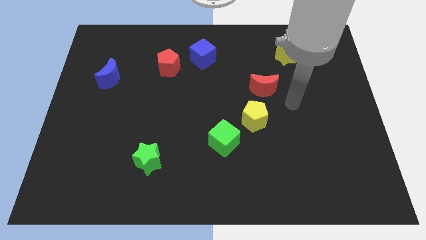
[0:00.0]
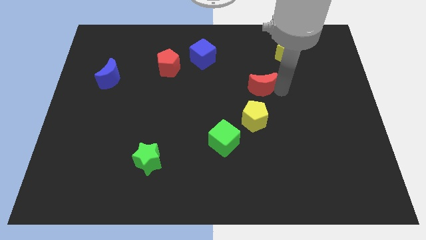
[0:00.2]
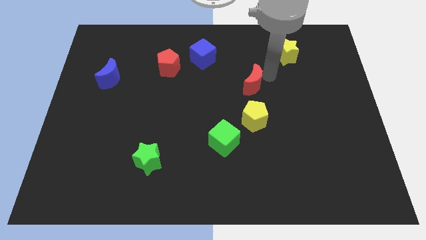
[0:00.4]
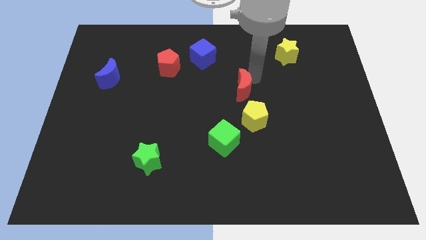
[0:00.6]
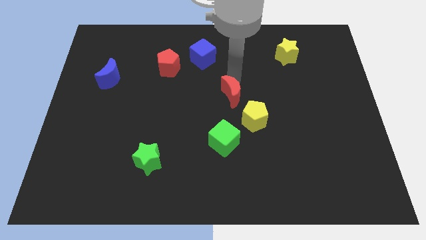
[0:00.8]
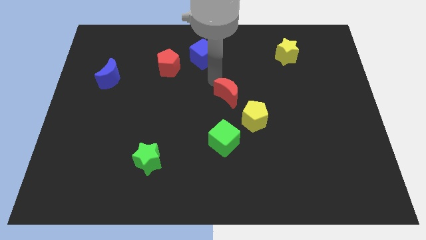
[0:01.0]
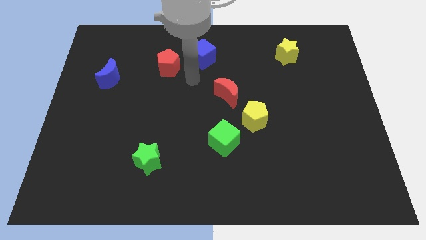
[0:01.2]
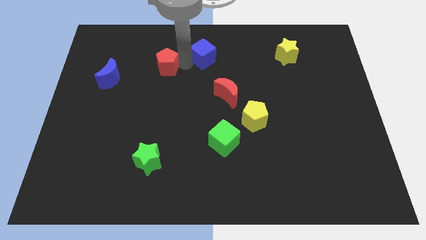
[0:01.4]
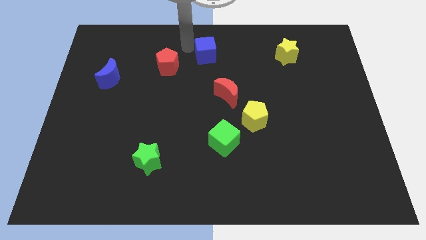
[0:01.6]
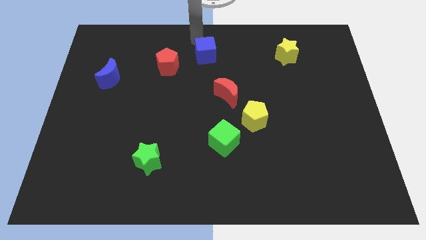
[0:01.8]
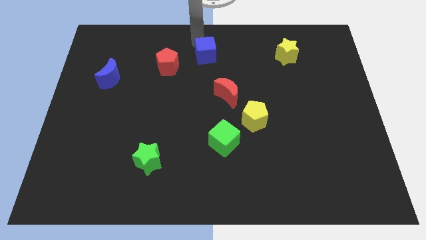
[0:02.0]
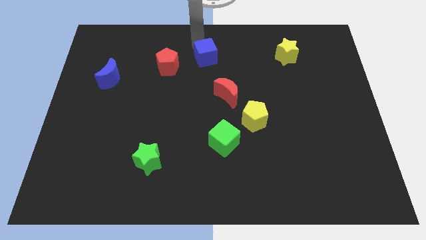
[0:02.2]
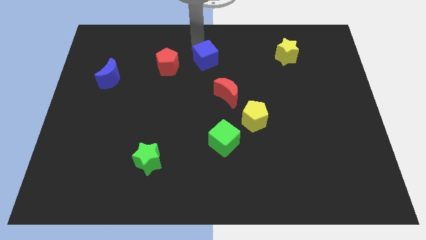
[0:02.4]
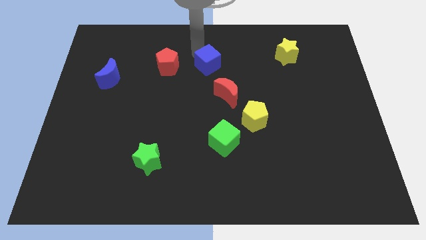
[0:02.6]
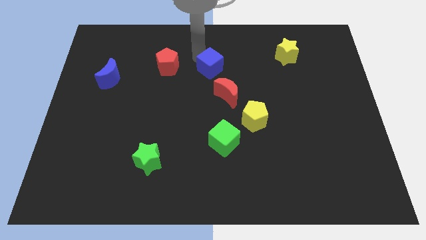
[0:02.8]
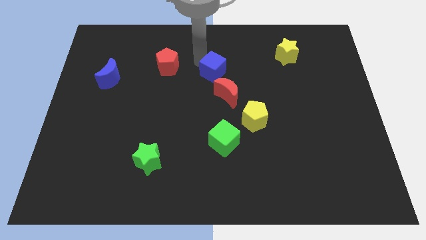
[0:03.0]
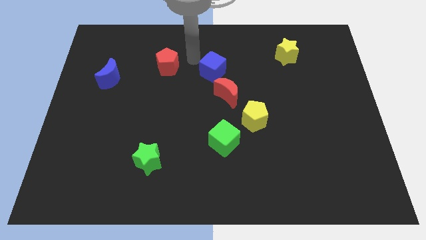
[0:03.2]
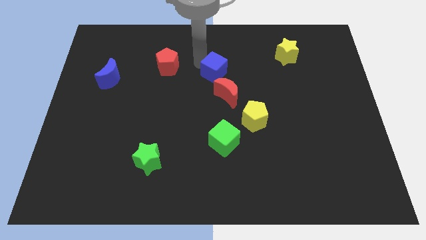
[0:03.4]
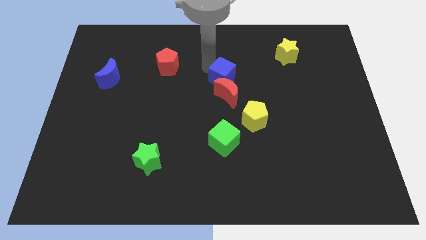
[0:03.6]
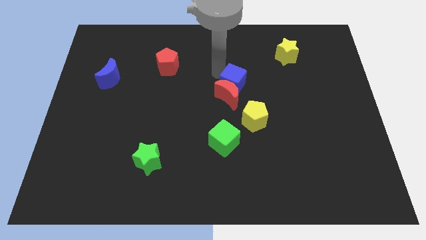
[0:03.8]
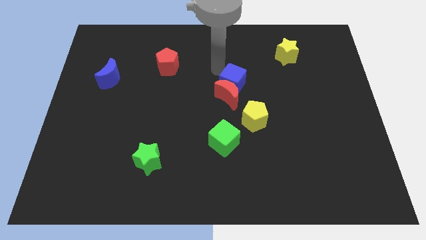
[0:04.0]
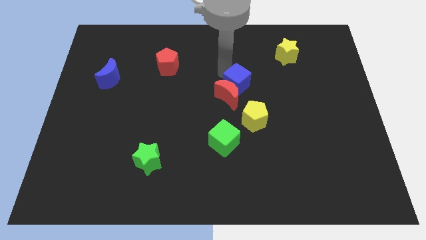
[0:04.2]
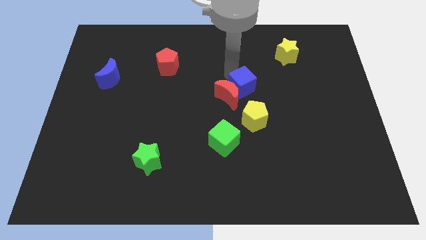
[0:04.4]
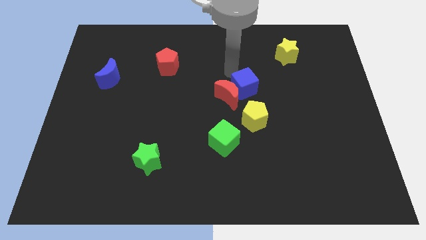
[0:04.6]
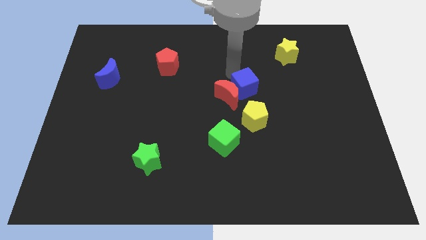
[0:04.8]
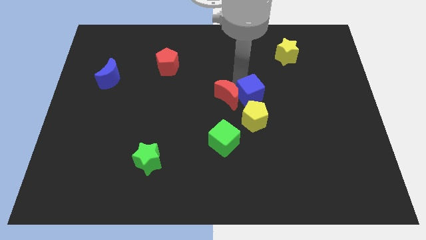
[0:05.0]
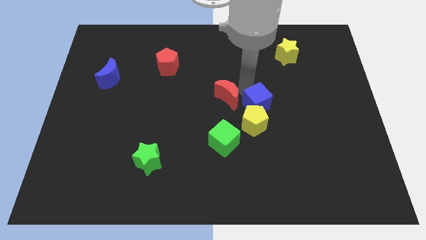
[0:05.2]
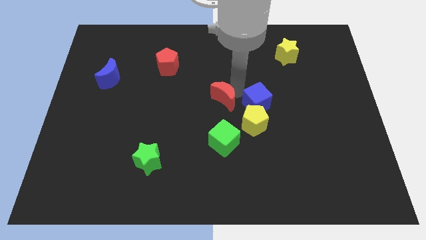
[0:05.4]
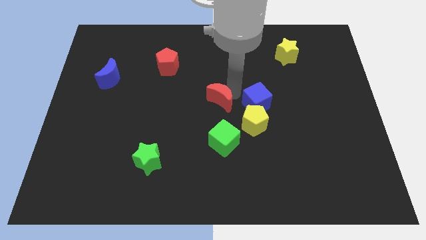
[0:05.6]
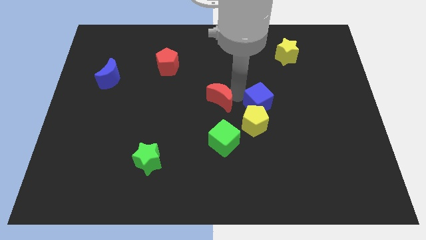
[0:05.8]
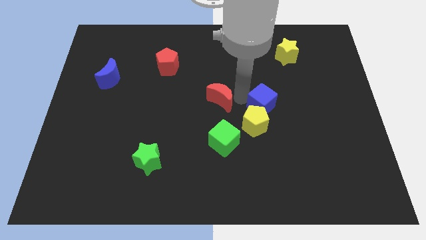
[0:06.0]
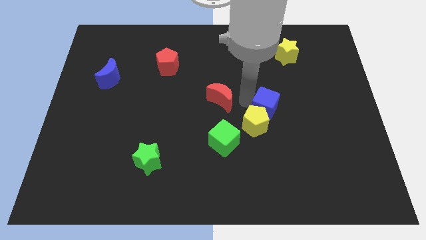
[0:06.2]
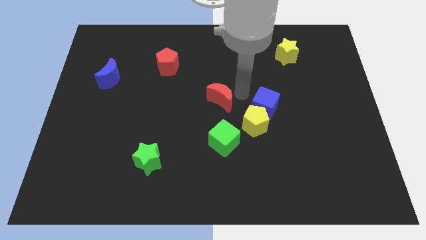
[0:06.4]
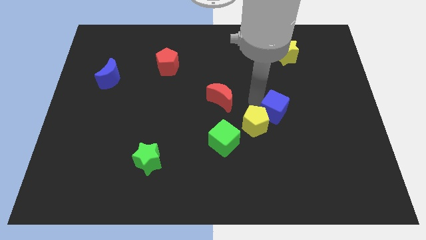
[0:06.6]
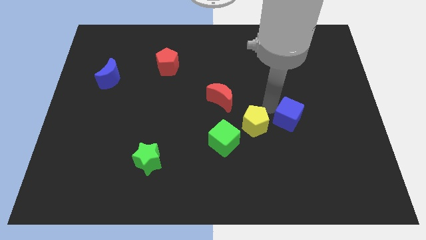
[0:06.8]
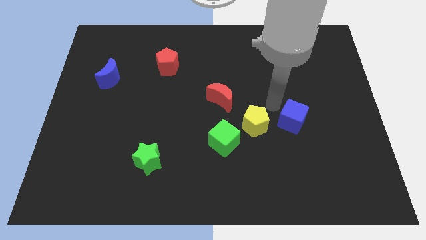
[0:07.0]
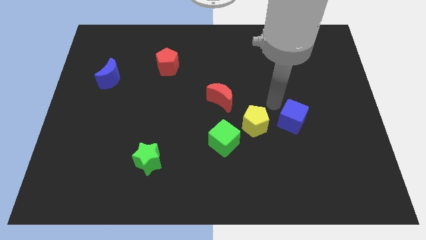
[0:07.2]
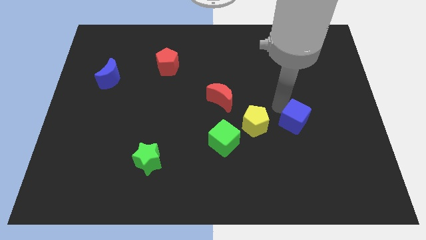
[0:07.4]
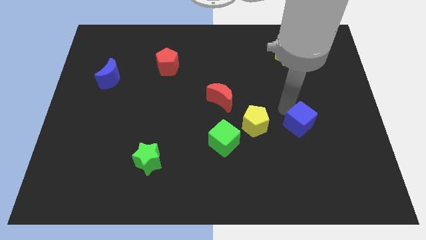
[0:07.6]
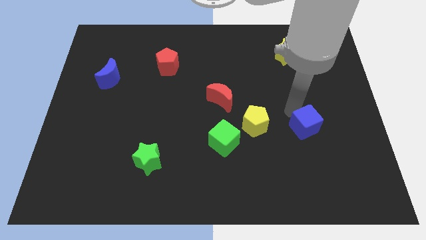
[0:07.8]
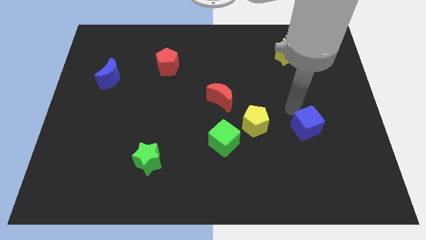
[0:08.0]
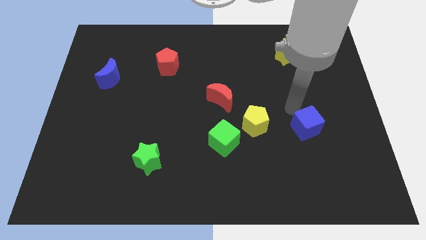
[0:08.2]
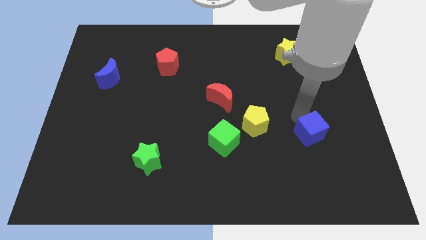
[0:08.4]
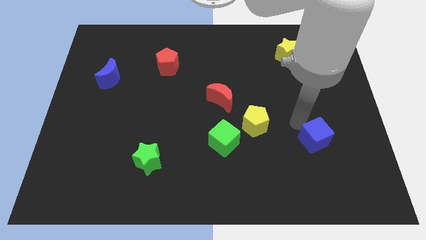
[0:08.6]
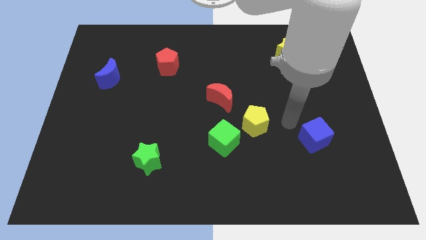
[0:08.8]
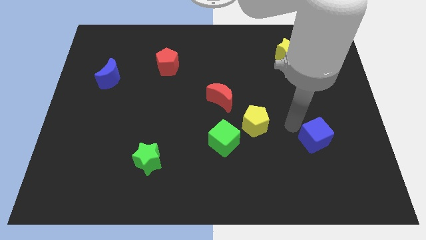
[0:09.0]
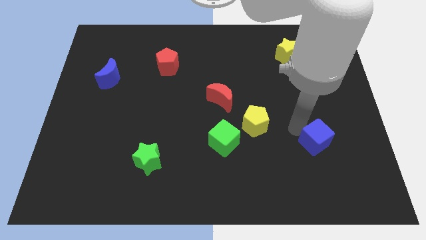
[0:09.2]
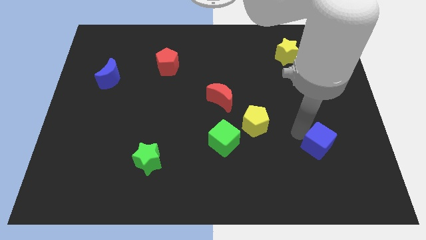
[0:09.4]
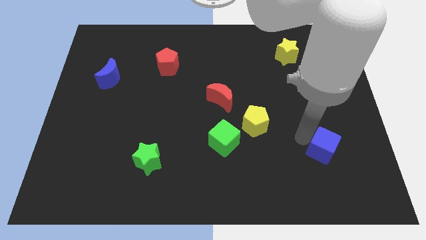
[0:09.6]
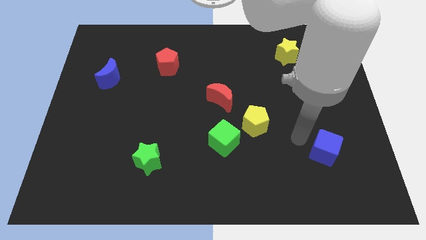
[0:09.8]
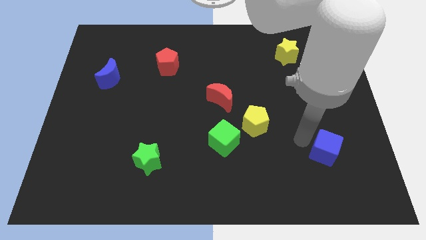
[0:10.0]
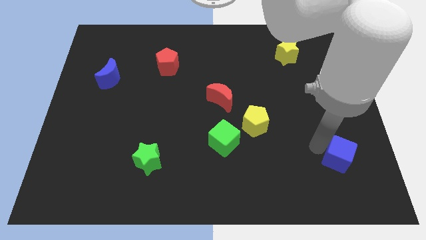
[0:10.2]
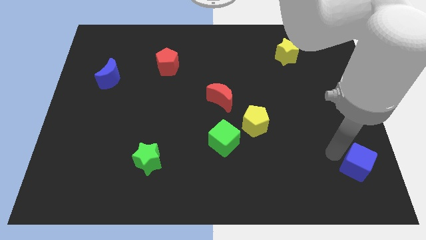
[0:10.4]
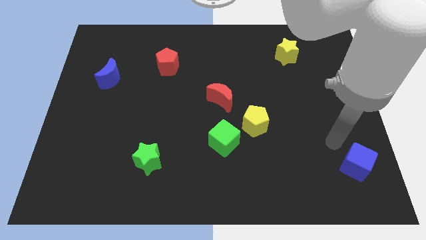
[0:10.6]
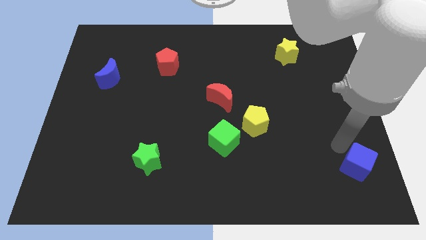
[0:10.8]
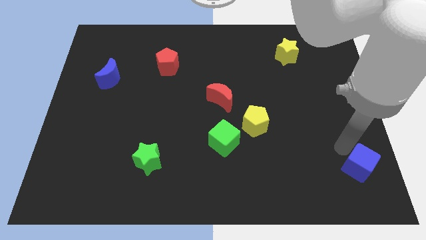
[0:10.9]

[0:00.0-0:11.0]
push the blue cube to the bottom right

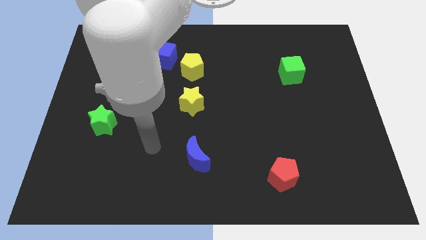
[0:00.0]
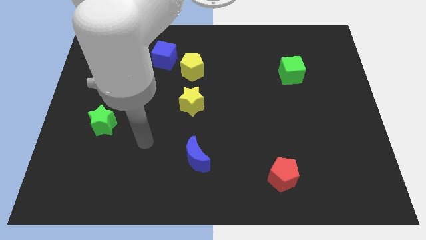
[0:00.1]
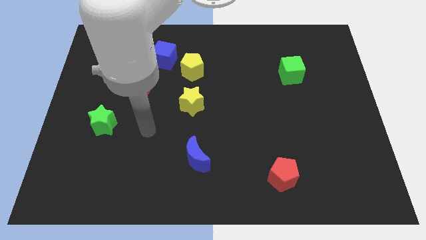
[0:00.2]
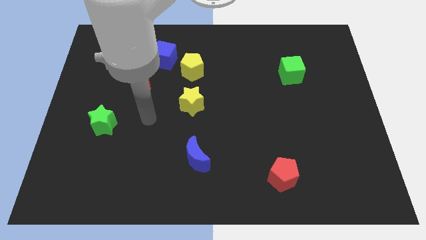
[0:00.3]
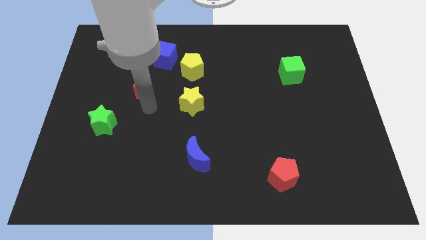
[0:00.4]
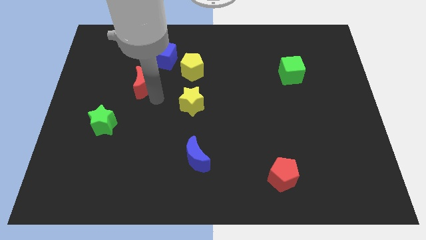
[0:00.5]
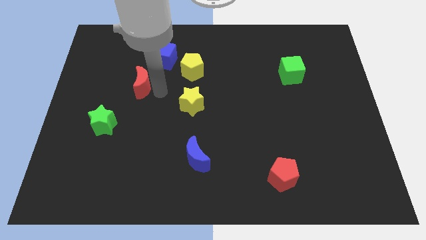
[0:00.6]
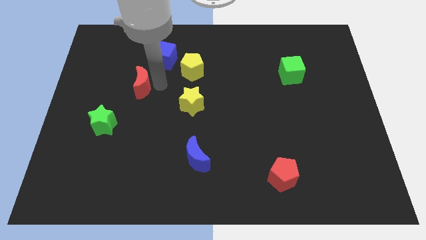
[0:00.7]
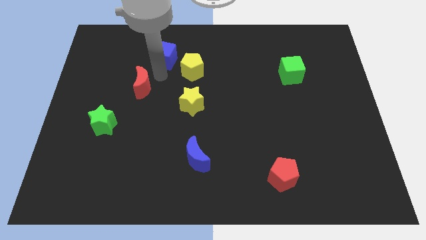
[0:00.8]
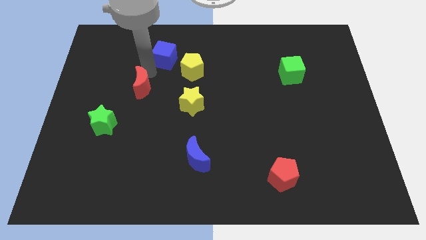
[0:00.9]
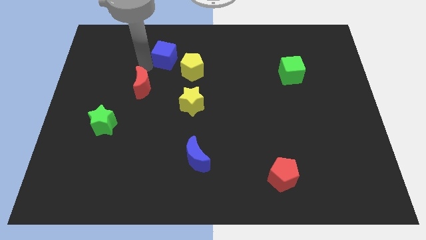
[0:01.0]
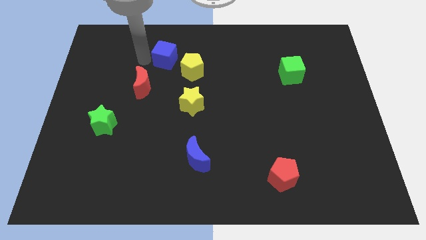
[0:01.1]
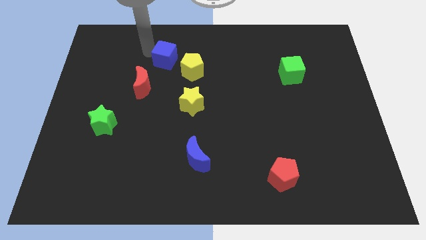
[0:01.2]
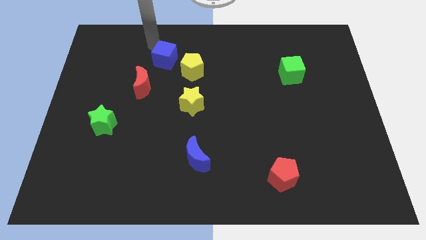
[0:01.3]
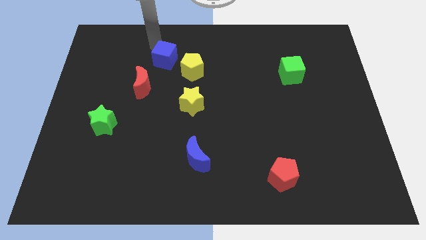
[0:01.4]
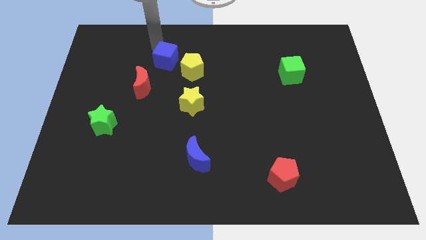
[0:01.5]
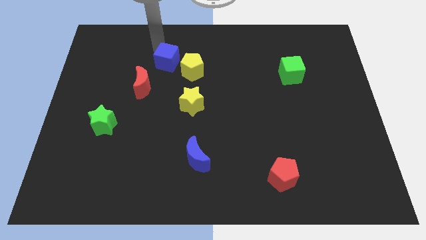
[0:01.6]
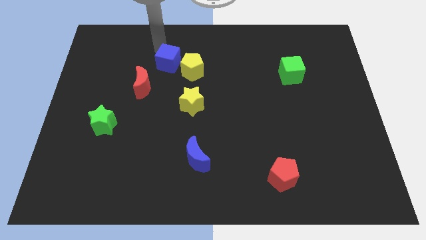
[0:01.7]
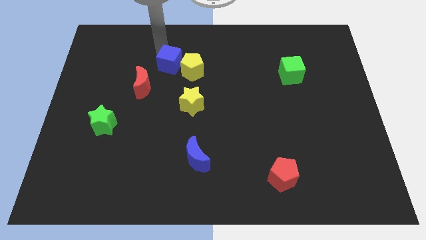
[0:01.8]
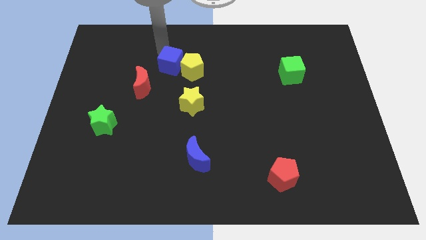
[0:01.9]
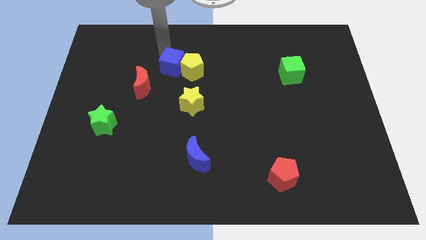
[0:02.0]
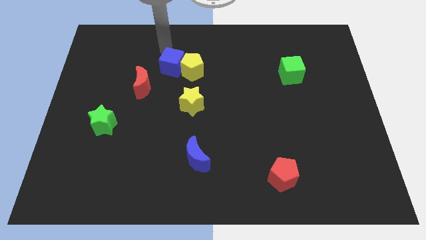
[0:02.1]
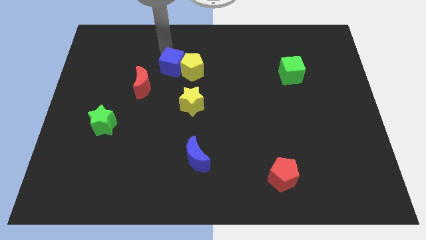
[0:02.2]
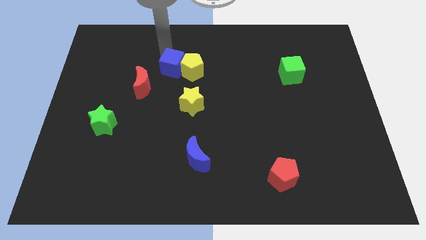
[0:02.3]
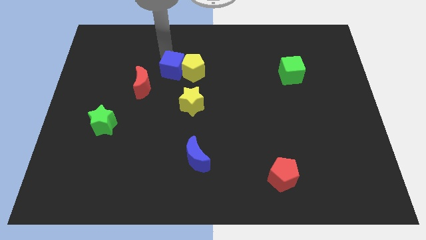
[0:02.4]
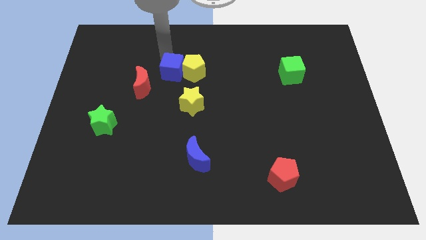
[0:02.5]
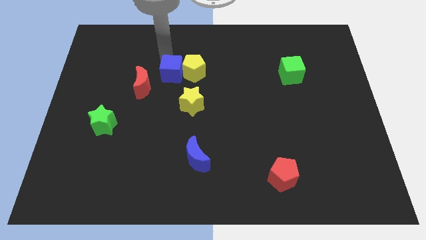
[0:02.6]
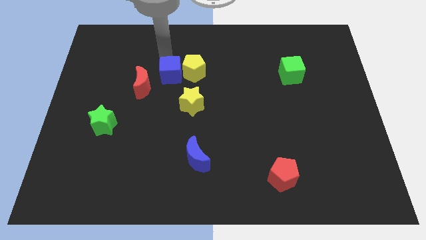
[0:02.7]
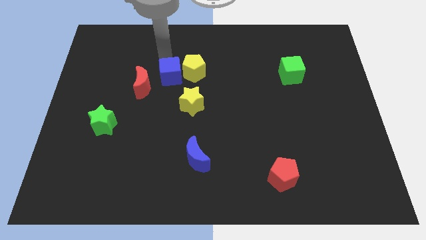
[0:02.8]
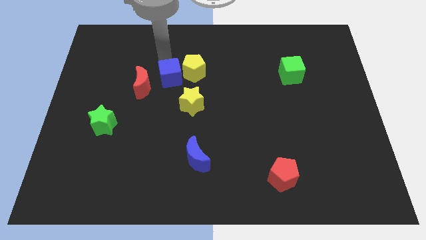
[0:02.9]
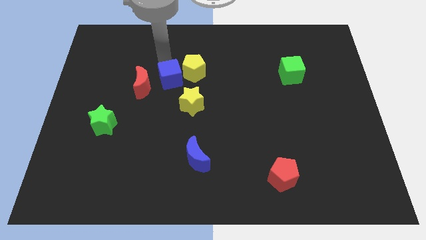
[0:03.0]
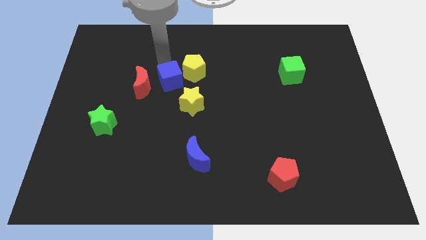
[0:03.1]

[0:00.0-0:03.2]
put the blue cube to the middle of the board
